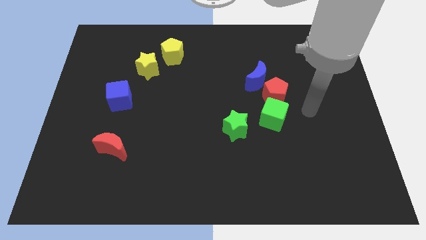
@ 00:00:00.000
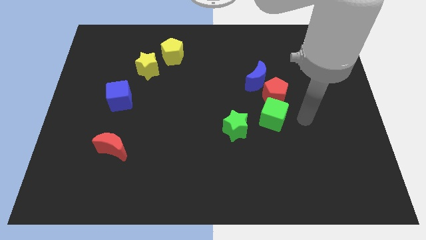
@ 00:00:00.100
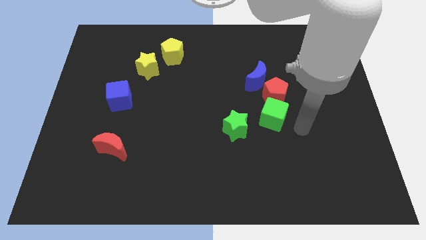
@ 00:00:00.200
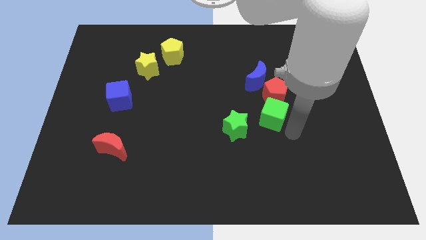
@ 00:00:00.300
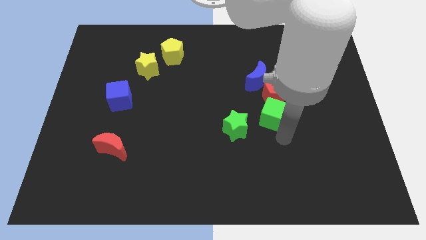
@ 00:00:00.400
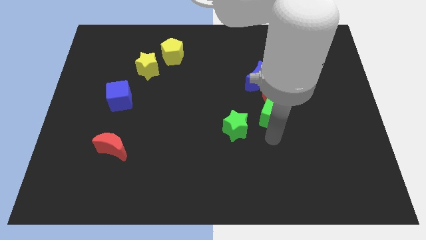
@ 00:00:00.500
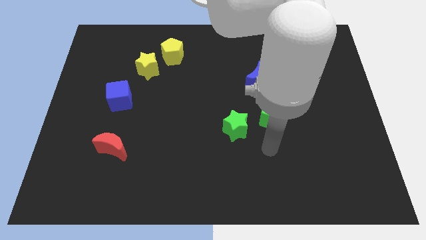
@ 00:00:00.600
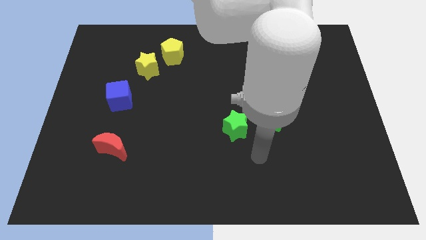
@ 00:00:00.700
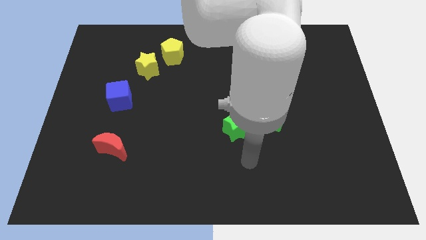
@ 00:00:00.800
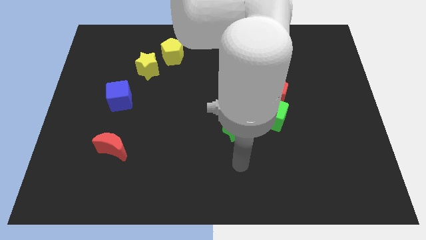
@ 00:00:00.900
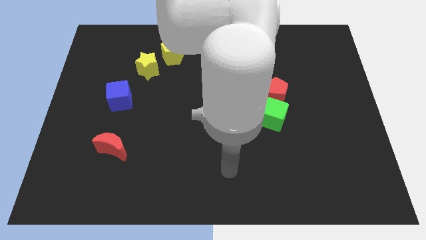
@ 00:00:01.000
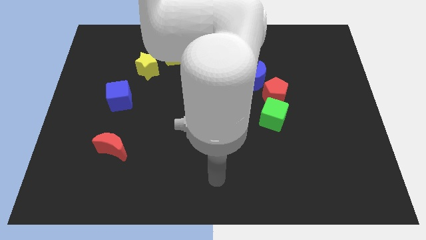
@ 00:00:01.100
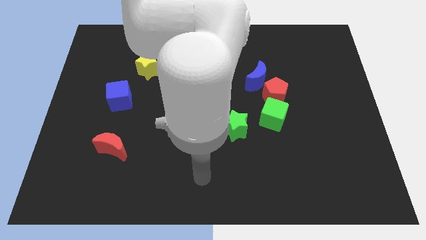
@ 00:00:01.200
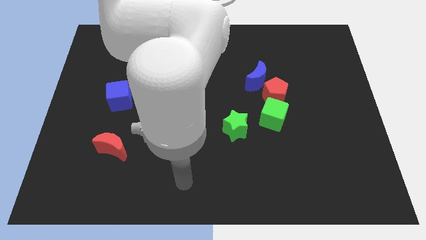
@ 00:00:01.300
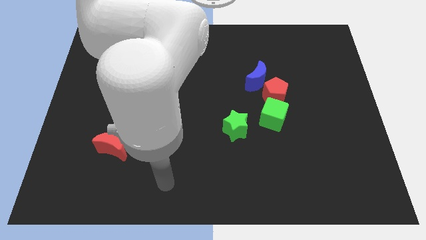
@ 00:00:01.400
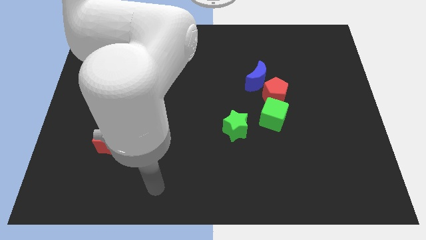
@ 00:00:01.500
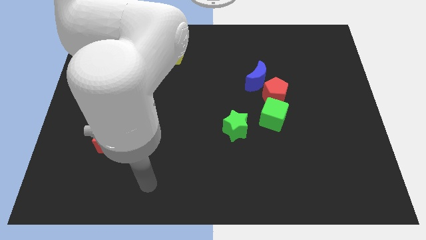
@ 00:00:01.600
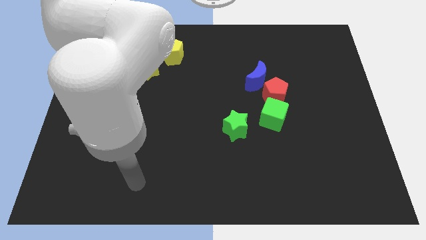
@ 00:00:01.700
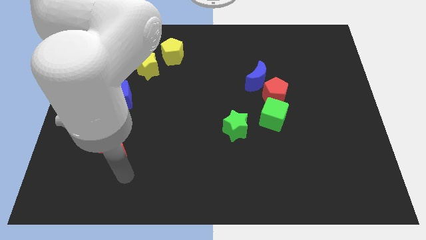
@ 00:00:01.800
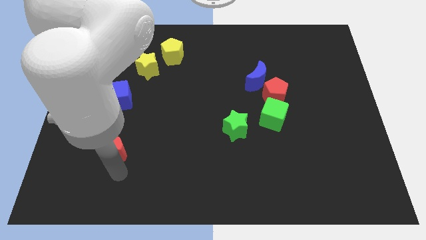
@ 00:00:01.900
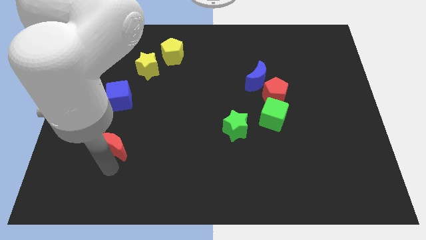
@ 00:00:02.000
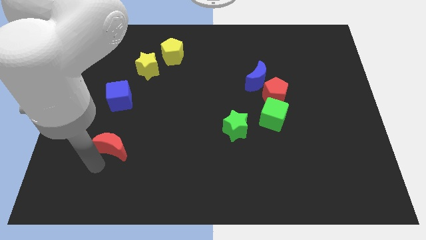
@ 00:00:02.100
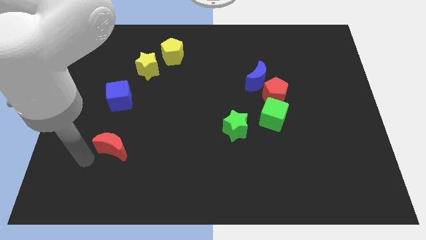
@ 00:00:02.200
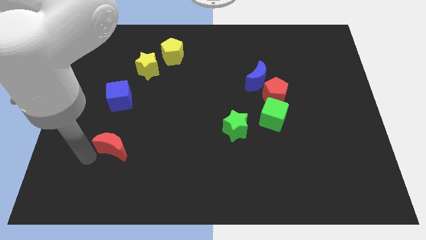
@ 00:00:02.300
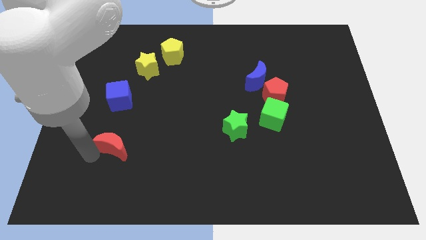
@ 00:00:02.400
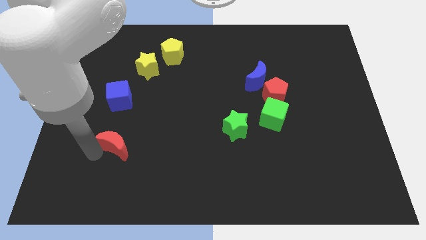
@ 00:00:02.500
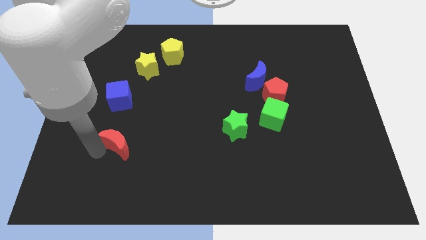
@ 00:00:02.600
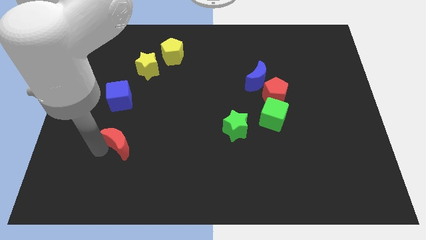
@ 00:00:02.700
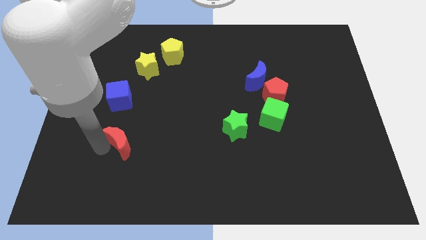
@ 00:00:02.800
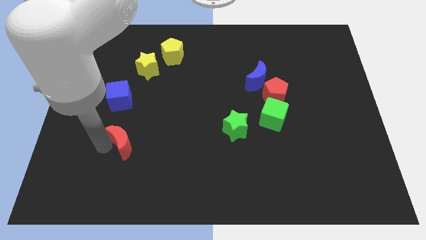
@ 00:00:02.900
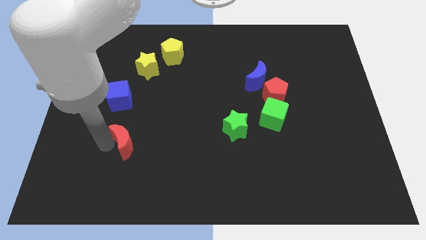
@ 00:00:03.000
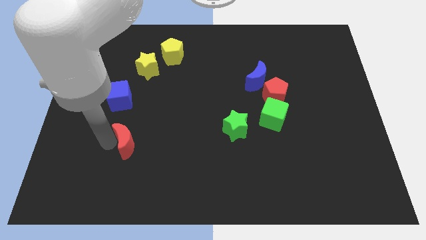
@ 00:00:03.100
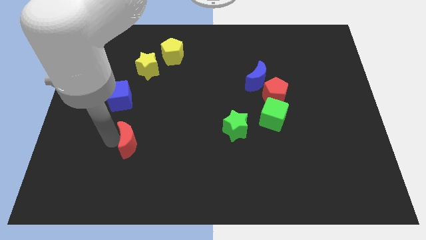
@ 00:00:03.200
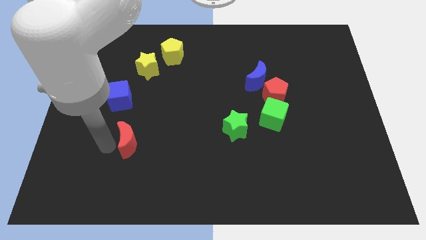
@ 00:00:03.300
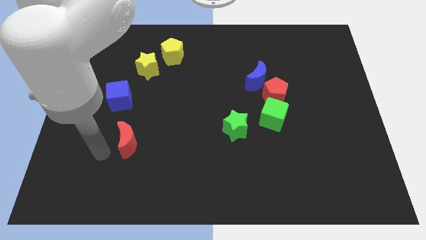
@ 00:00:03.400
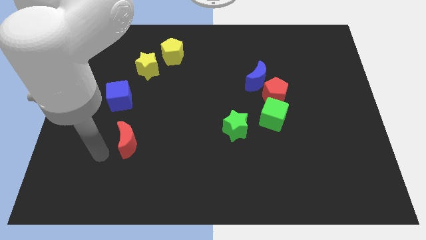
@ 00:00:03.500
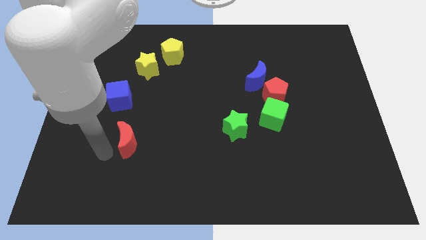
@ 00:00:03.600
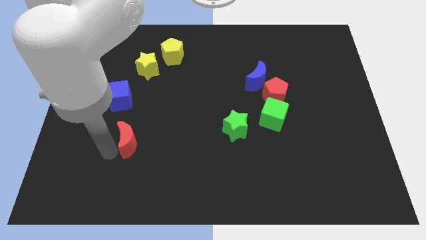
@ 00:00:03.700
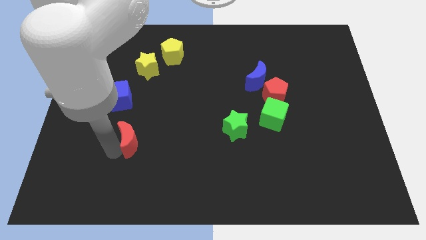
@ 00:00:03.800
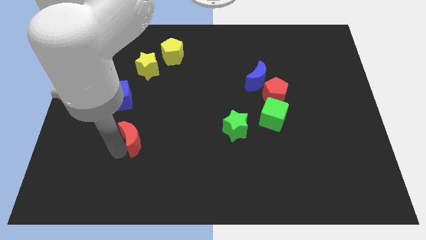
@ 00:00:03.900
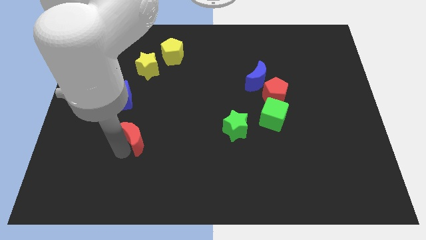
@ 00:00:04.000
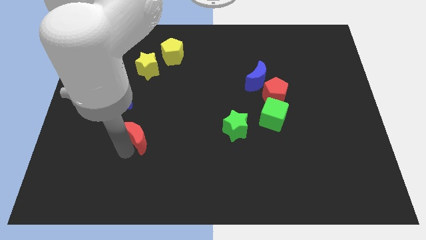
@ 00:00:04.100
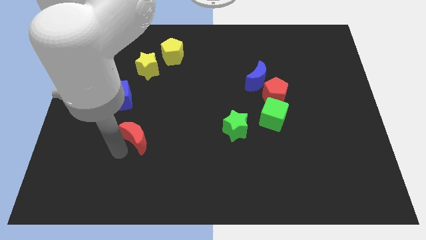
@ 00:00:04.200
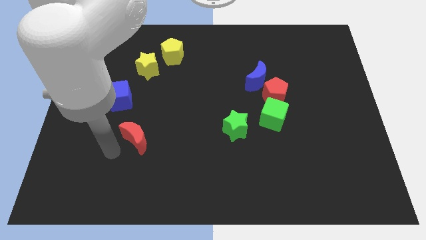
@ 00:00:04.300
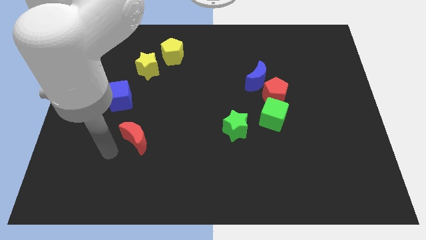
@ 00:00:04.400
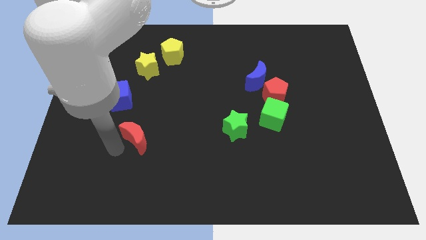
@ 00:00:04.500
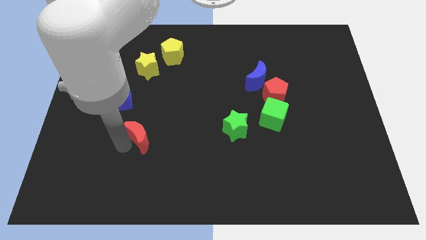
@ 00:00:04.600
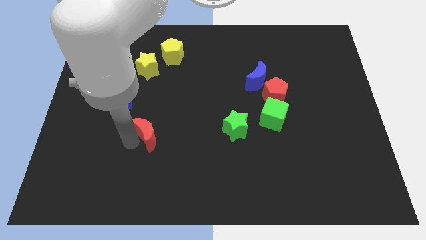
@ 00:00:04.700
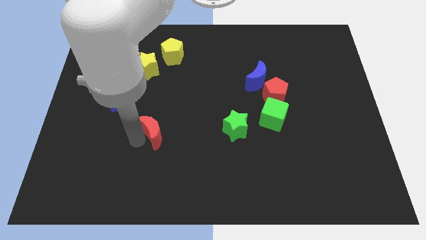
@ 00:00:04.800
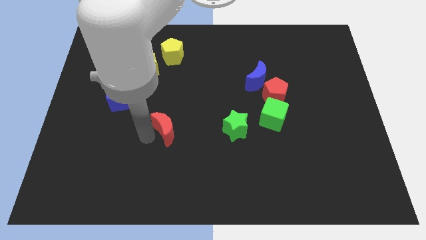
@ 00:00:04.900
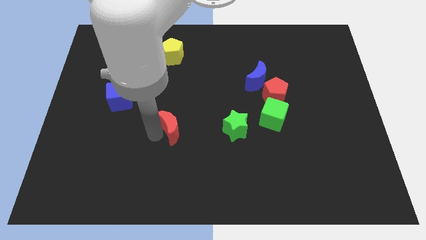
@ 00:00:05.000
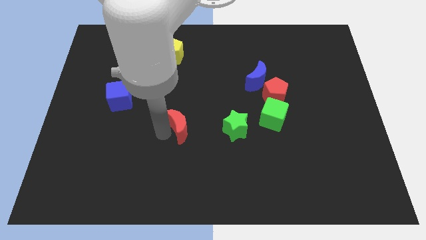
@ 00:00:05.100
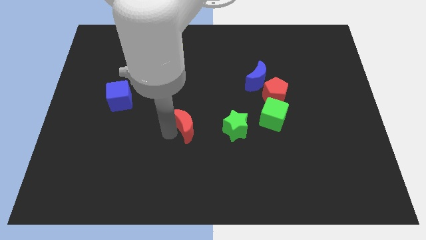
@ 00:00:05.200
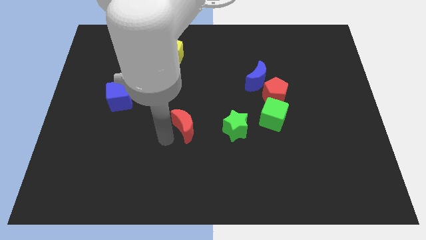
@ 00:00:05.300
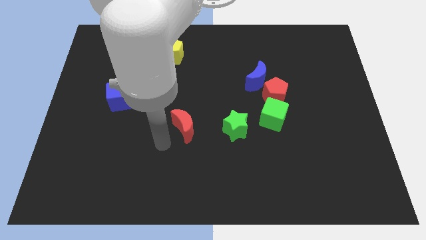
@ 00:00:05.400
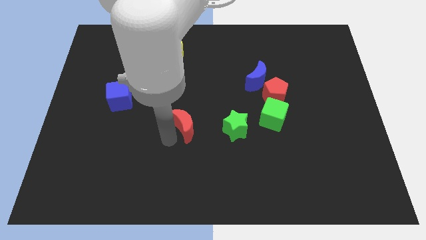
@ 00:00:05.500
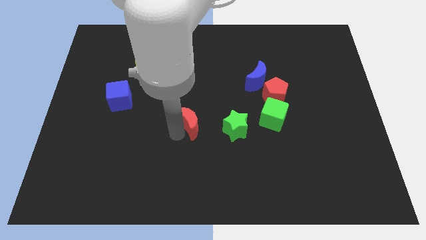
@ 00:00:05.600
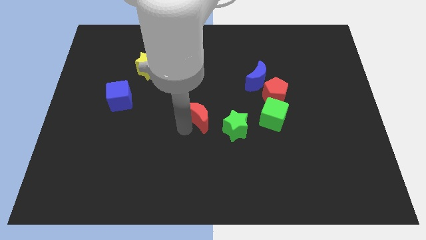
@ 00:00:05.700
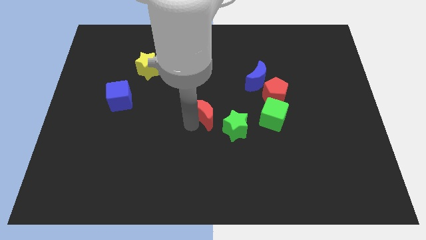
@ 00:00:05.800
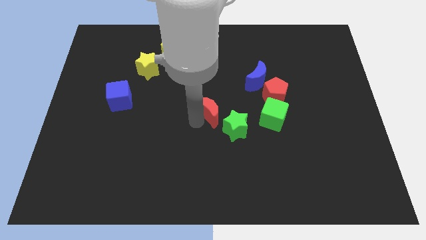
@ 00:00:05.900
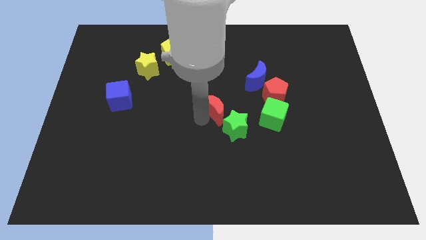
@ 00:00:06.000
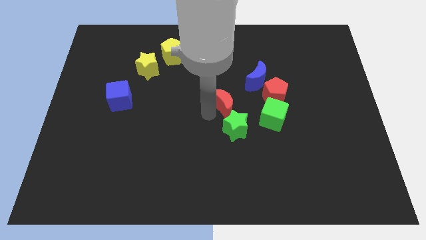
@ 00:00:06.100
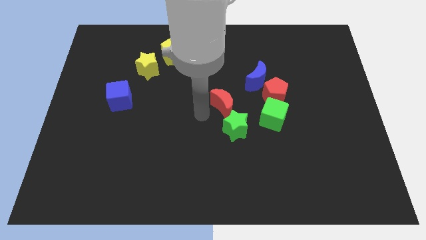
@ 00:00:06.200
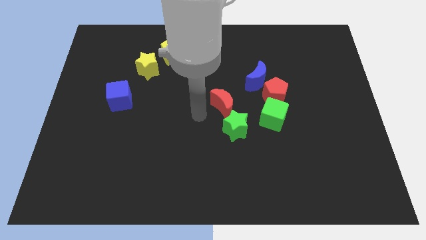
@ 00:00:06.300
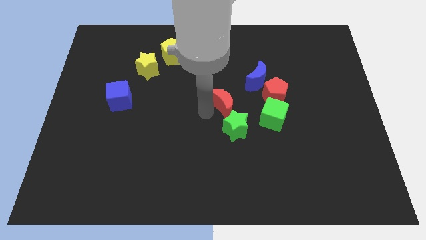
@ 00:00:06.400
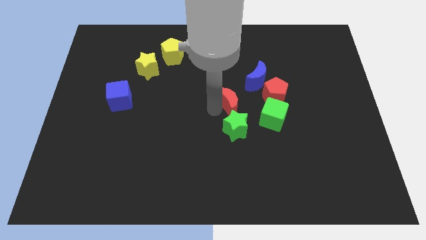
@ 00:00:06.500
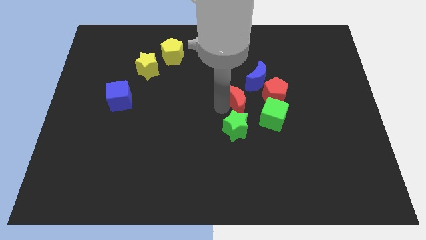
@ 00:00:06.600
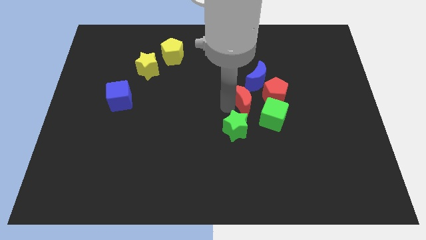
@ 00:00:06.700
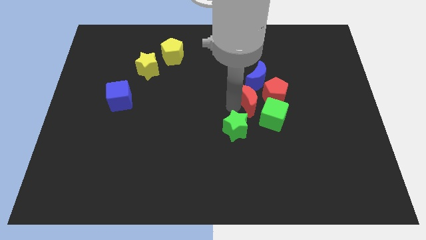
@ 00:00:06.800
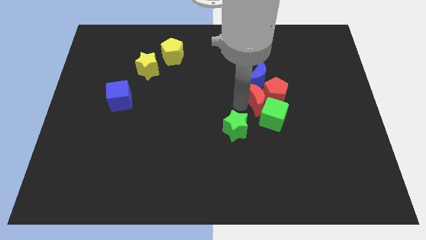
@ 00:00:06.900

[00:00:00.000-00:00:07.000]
move the red moon next to the red pentagon

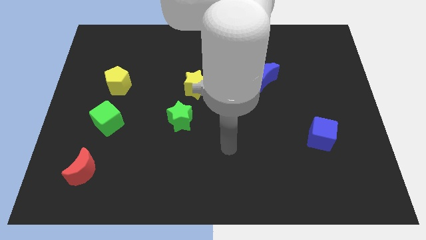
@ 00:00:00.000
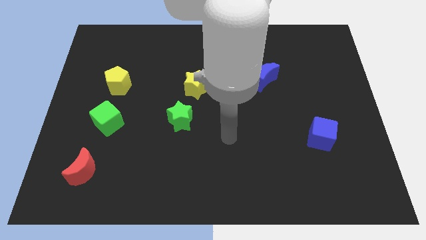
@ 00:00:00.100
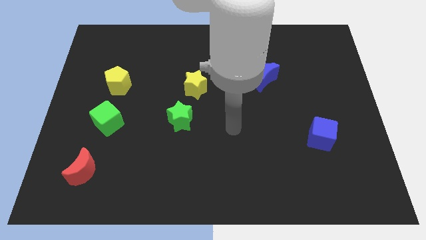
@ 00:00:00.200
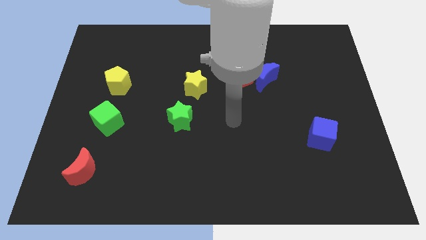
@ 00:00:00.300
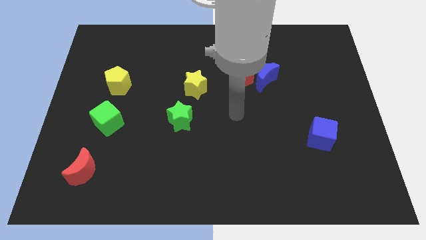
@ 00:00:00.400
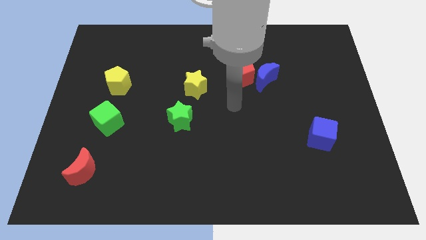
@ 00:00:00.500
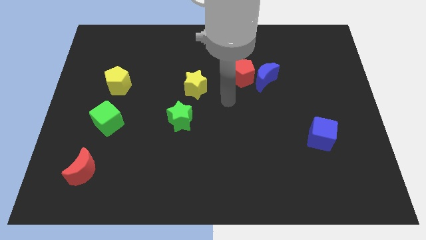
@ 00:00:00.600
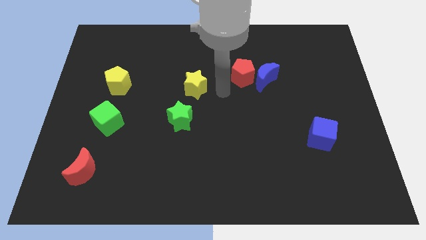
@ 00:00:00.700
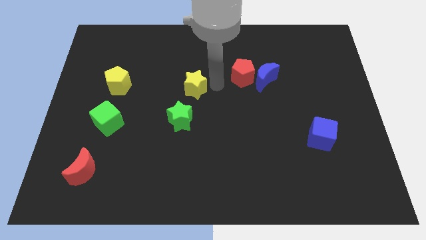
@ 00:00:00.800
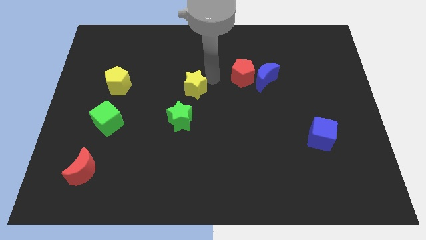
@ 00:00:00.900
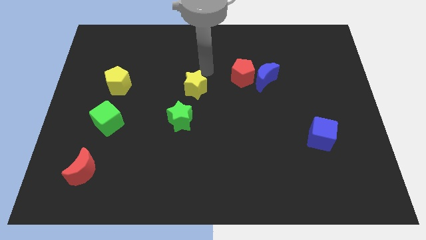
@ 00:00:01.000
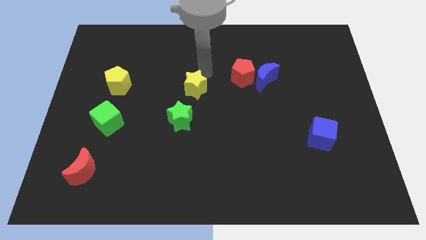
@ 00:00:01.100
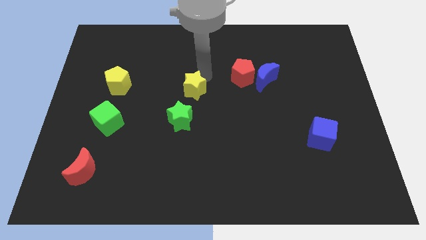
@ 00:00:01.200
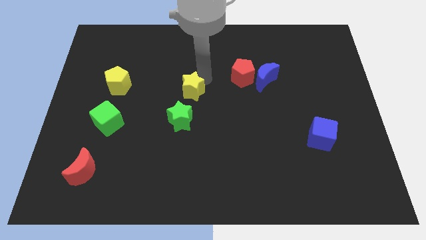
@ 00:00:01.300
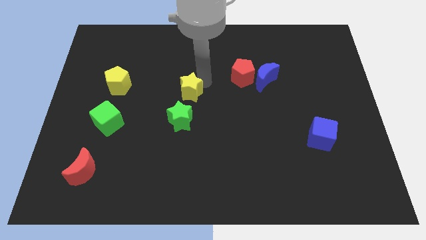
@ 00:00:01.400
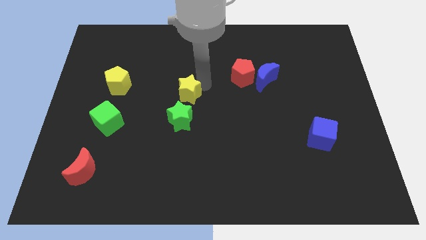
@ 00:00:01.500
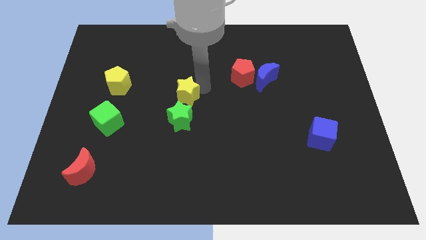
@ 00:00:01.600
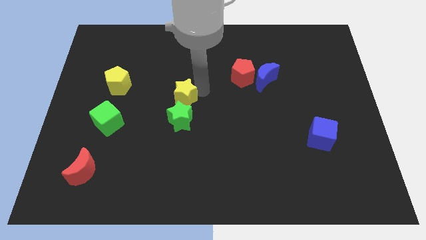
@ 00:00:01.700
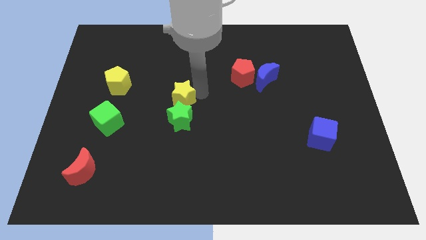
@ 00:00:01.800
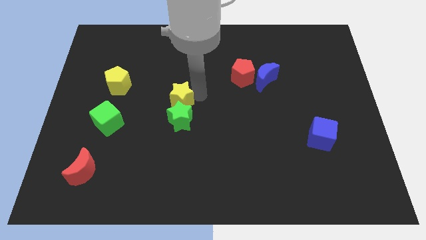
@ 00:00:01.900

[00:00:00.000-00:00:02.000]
slide the yellow star close to the green star
